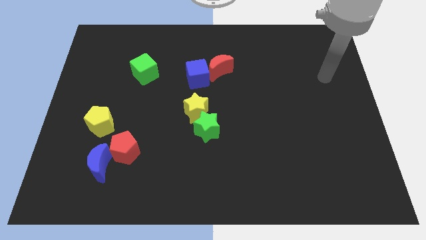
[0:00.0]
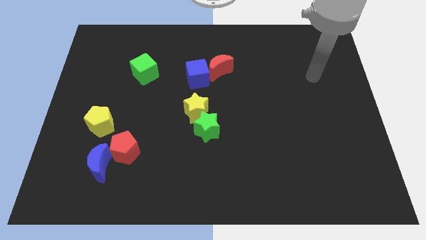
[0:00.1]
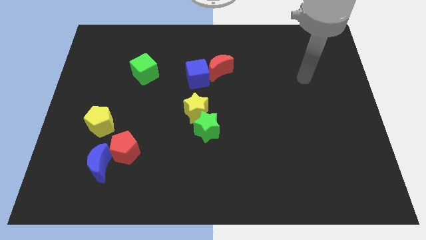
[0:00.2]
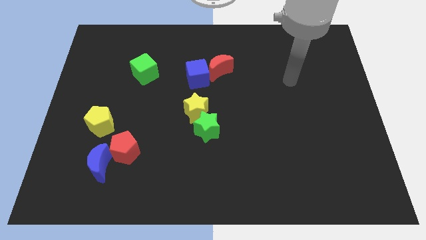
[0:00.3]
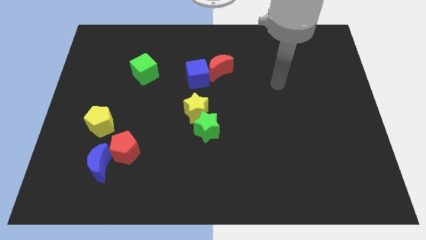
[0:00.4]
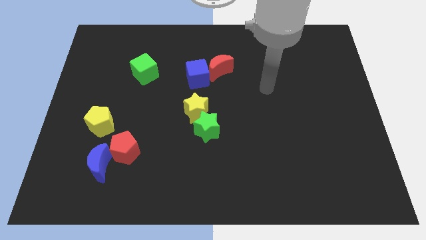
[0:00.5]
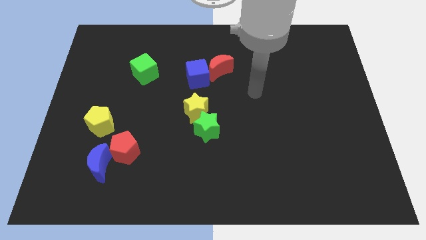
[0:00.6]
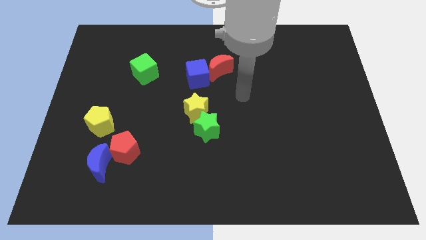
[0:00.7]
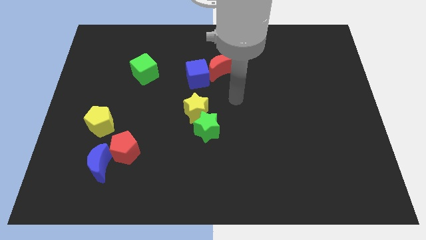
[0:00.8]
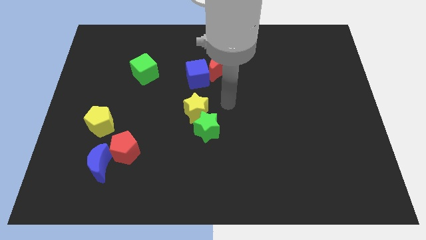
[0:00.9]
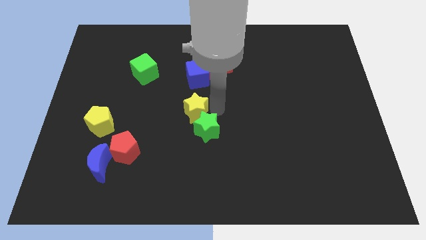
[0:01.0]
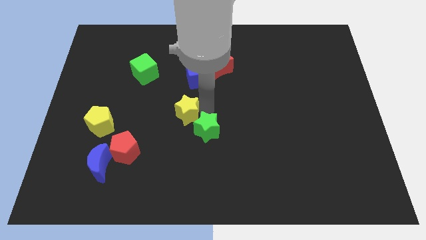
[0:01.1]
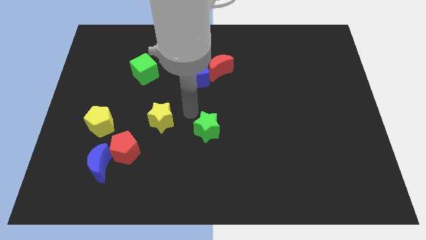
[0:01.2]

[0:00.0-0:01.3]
separate the green star from the yellow star

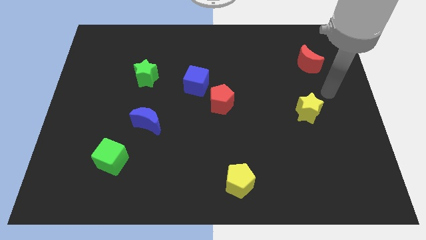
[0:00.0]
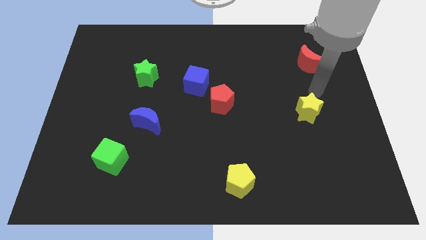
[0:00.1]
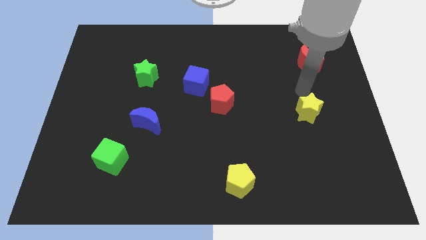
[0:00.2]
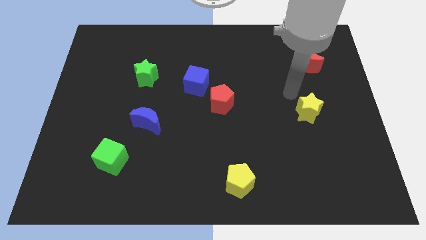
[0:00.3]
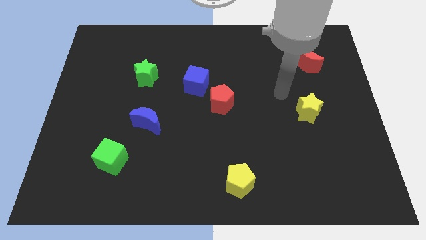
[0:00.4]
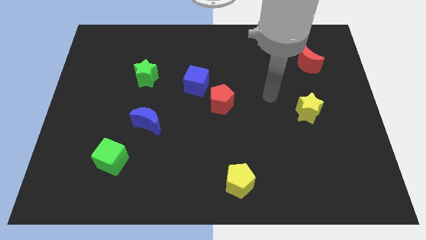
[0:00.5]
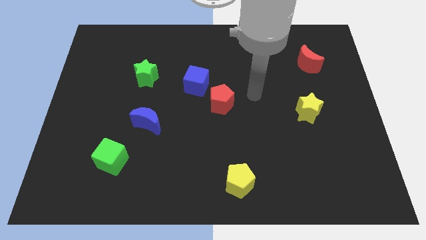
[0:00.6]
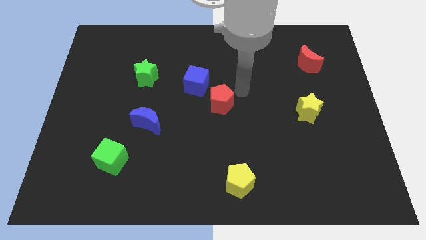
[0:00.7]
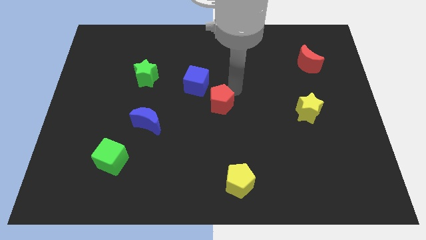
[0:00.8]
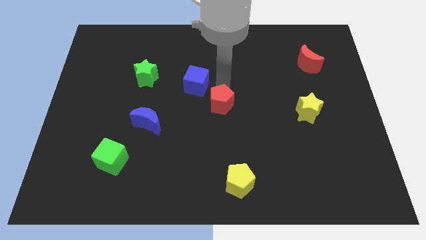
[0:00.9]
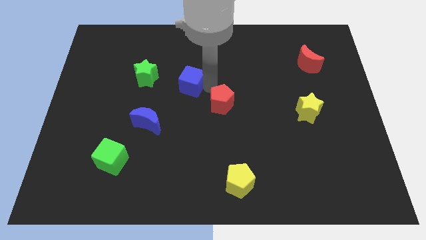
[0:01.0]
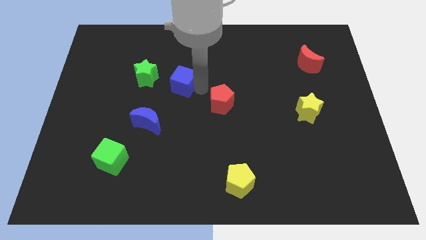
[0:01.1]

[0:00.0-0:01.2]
separate the red pentagon from the blue cube

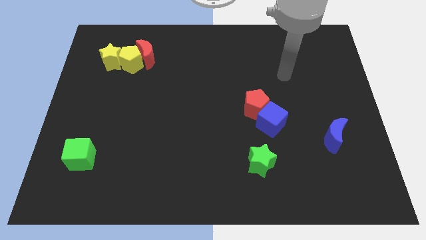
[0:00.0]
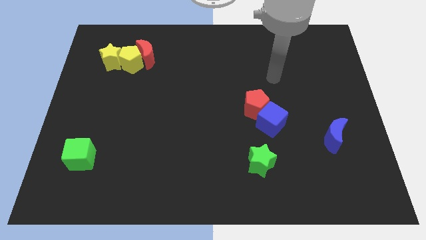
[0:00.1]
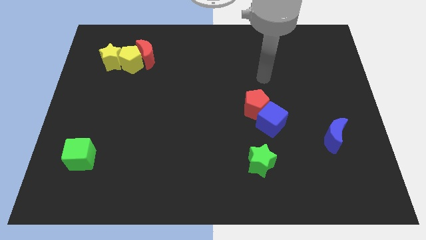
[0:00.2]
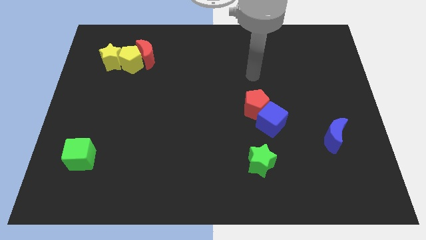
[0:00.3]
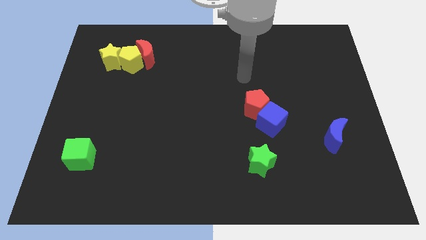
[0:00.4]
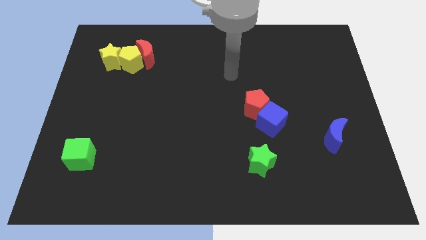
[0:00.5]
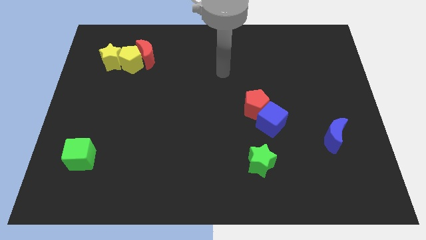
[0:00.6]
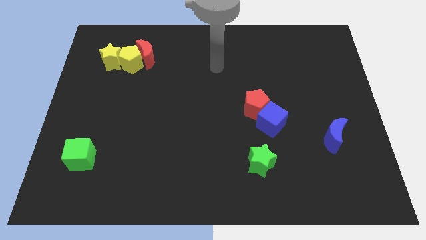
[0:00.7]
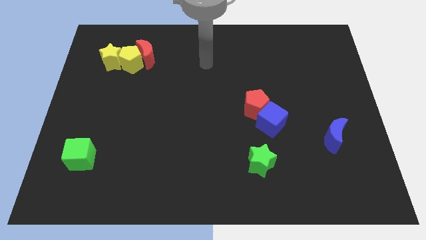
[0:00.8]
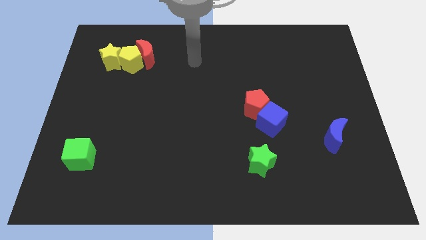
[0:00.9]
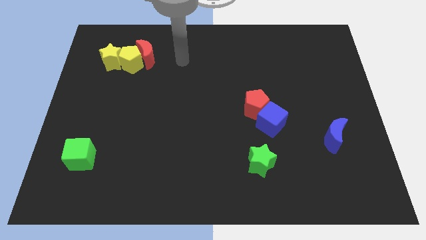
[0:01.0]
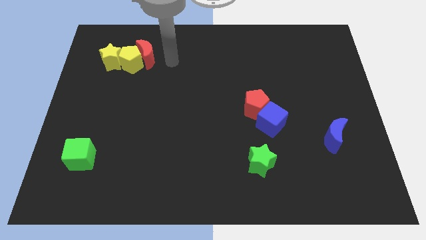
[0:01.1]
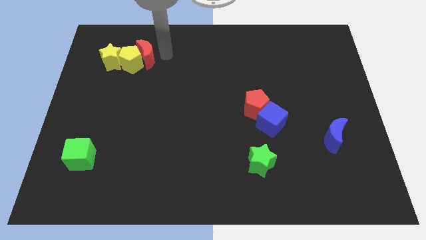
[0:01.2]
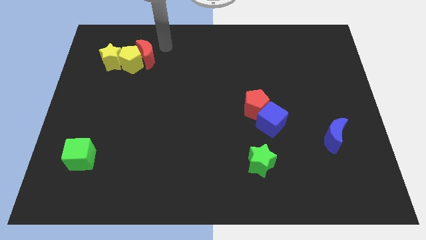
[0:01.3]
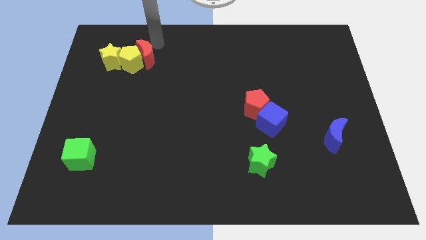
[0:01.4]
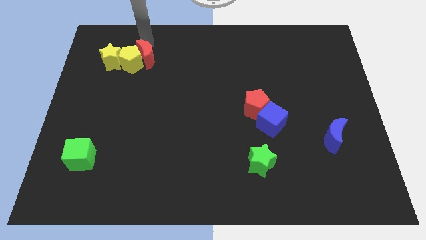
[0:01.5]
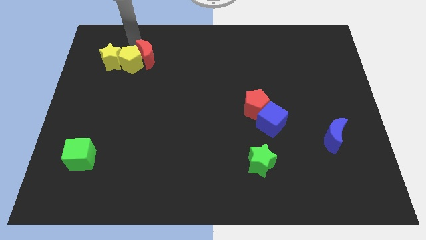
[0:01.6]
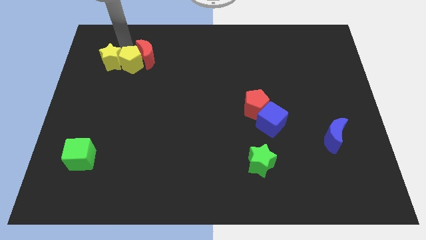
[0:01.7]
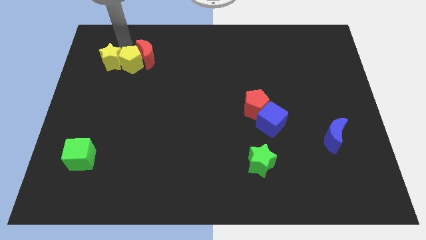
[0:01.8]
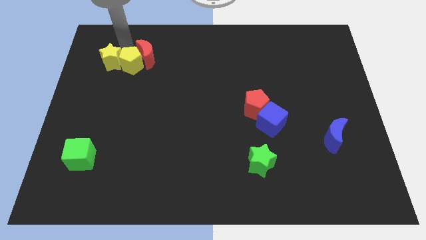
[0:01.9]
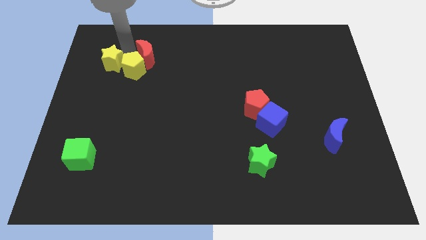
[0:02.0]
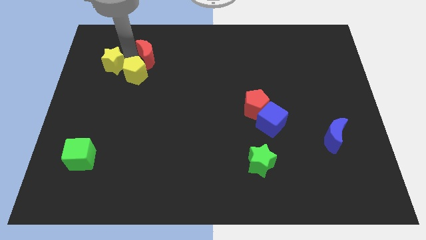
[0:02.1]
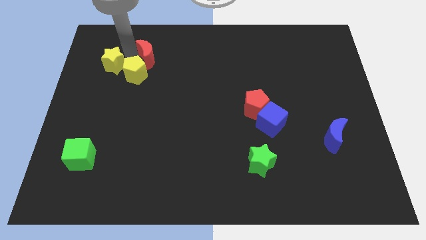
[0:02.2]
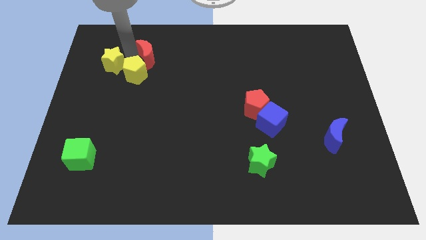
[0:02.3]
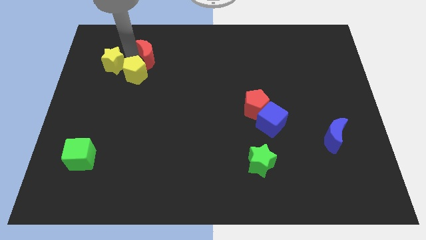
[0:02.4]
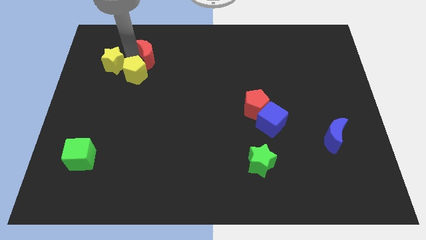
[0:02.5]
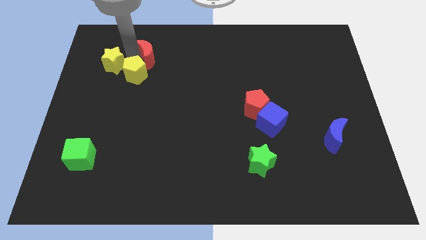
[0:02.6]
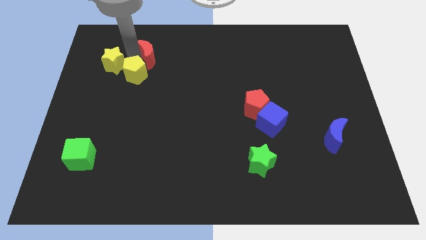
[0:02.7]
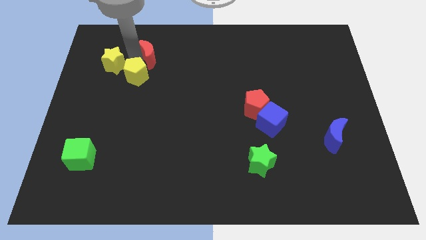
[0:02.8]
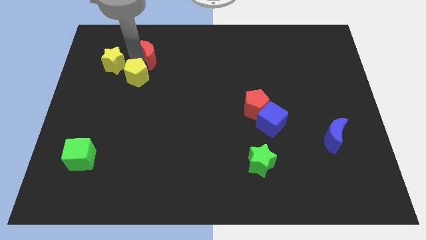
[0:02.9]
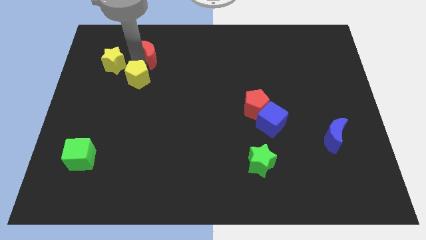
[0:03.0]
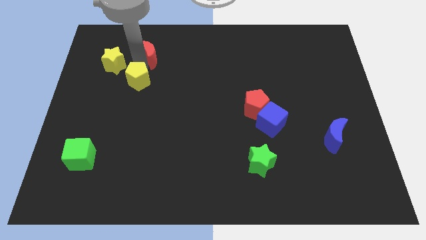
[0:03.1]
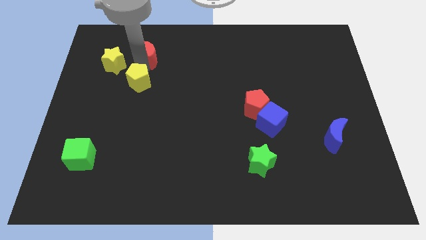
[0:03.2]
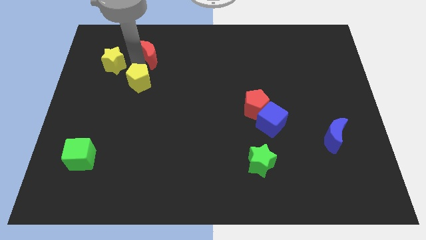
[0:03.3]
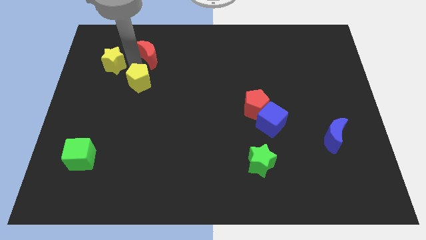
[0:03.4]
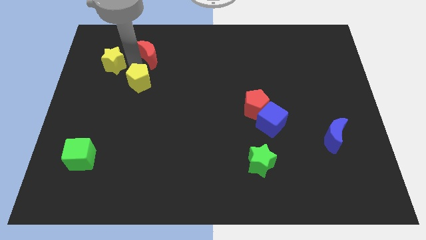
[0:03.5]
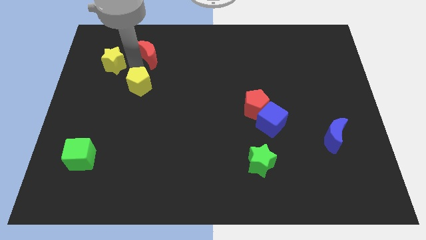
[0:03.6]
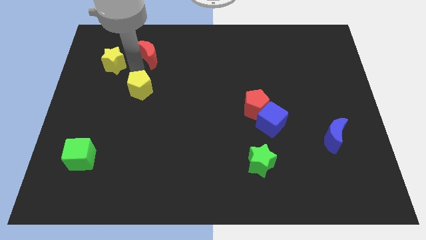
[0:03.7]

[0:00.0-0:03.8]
pull the yellow pentagon apart from the red moon and yellow star

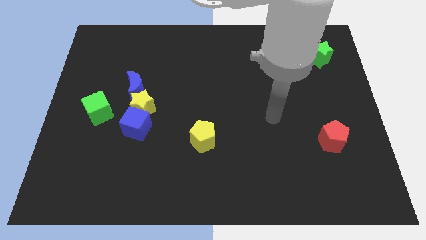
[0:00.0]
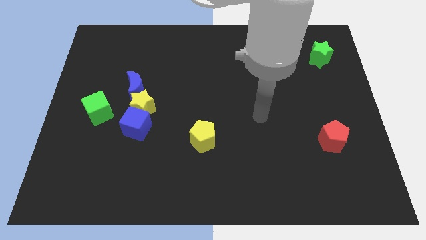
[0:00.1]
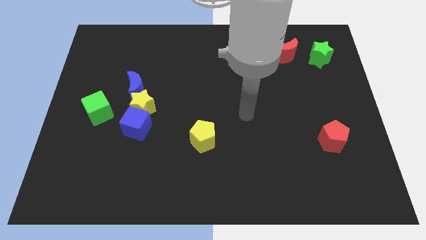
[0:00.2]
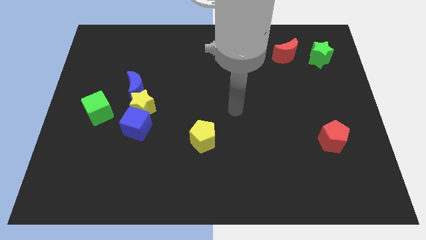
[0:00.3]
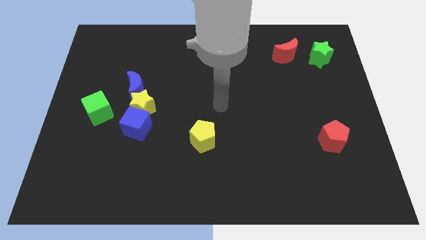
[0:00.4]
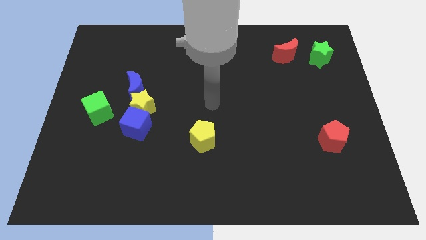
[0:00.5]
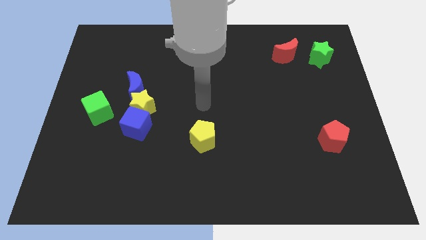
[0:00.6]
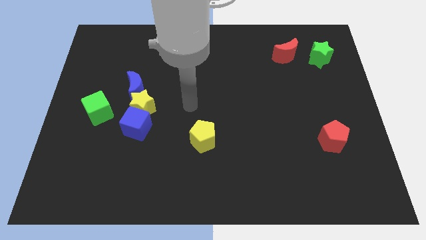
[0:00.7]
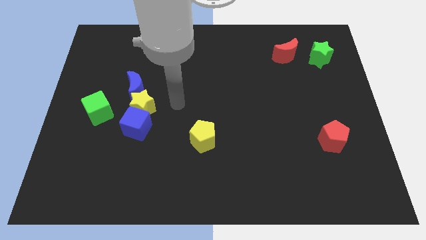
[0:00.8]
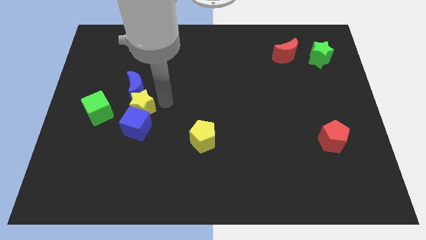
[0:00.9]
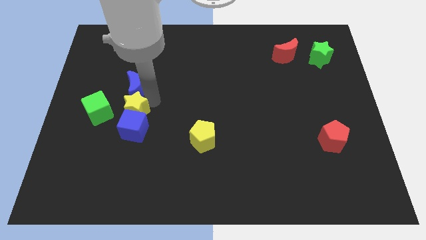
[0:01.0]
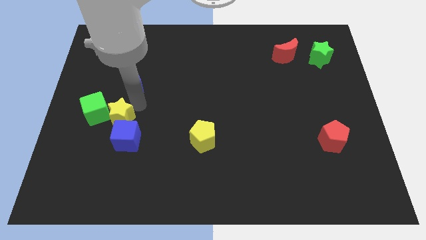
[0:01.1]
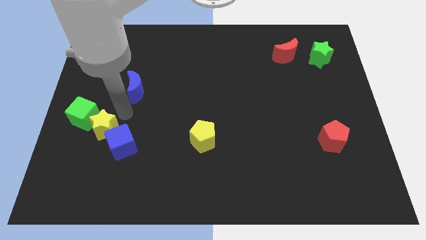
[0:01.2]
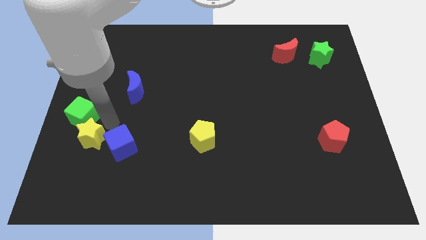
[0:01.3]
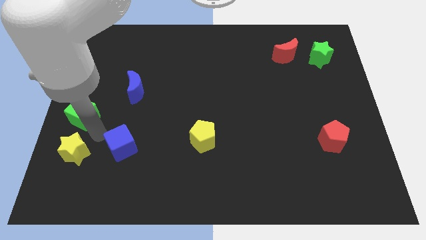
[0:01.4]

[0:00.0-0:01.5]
move the blue cube away from the yellow star

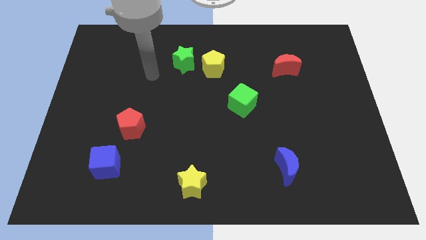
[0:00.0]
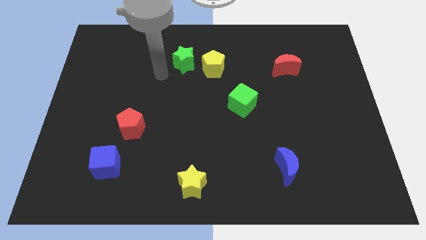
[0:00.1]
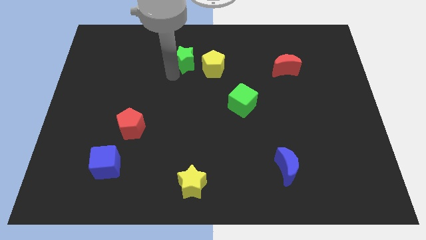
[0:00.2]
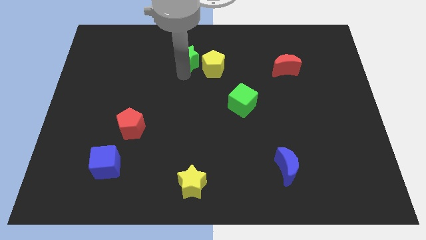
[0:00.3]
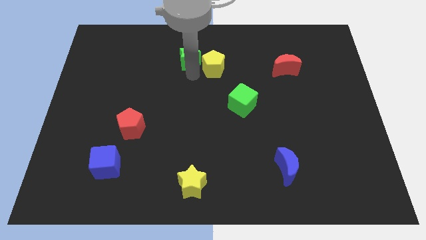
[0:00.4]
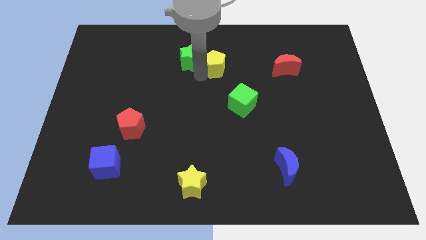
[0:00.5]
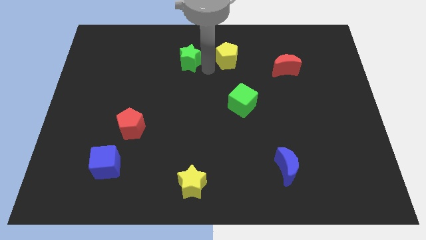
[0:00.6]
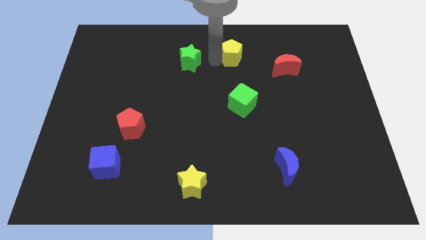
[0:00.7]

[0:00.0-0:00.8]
pull the green star apart from the yellow pentagon

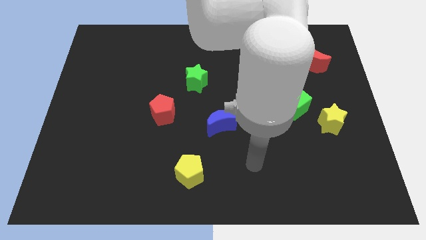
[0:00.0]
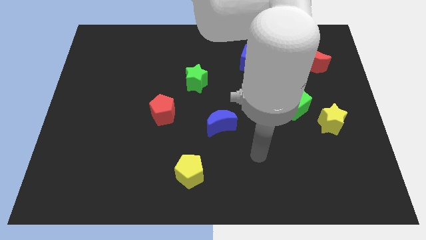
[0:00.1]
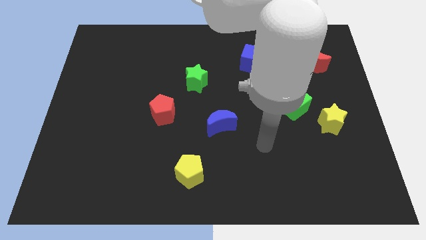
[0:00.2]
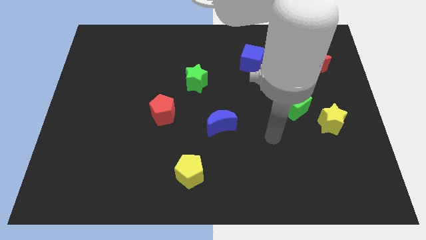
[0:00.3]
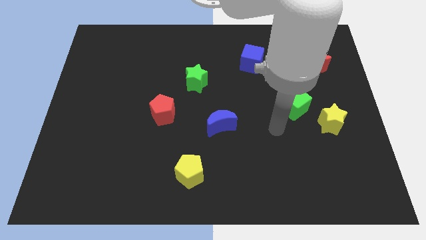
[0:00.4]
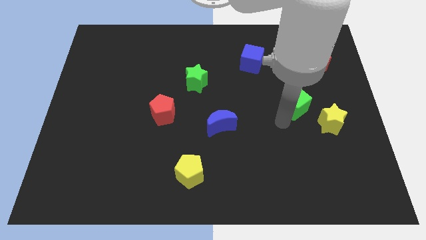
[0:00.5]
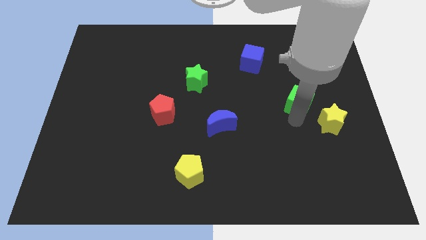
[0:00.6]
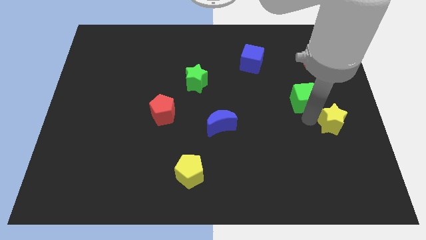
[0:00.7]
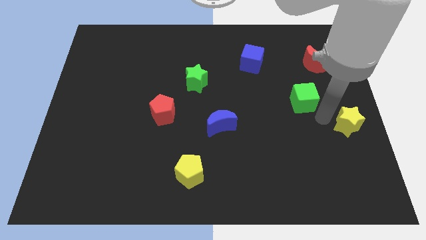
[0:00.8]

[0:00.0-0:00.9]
pull the green cube apart from the yellow star

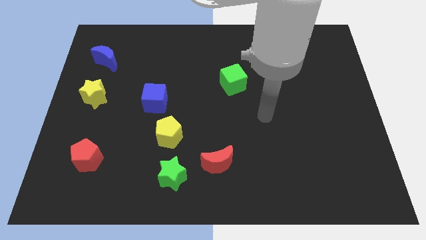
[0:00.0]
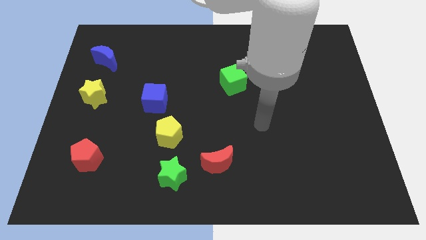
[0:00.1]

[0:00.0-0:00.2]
move the yellow pentagon away from the green star
